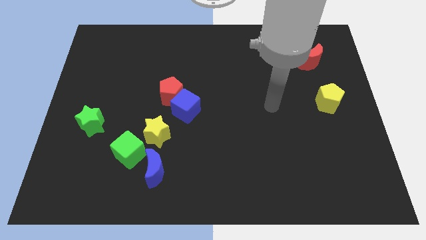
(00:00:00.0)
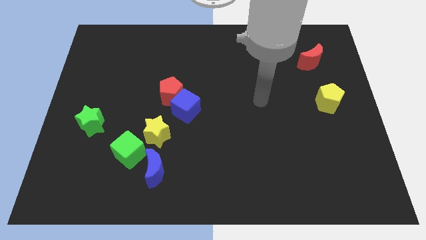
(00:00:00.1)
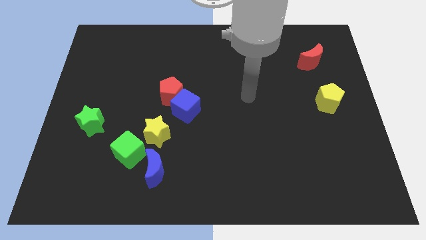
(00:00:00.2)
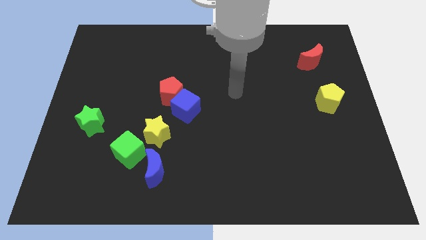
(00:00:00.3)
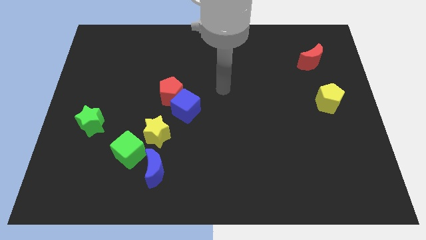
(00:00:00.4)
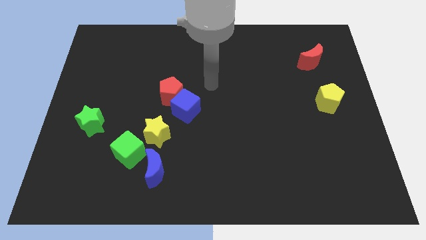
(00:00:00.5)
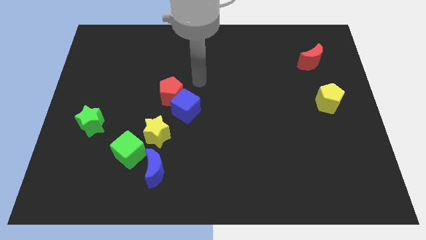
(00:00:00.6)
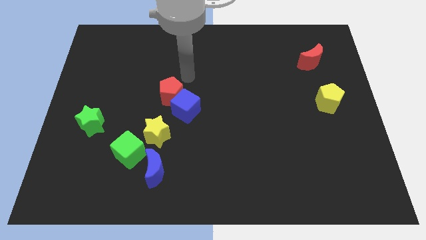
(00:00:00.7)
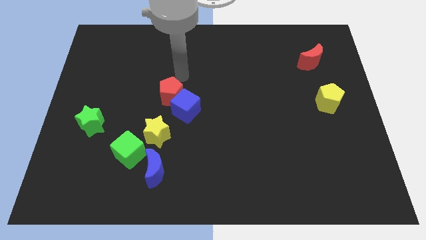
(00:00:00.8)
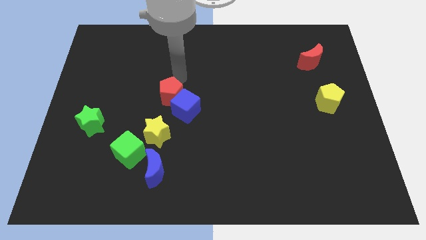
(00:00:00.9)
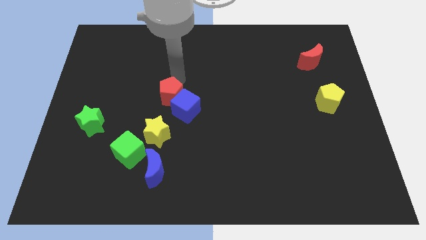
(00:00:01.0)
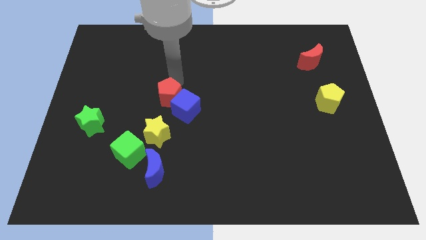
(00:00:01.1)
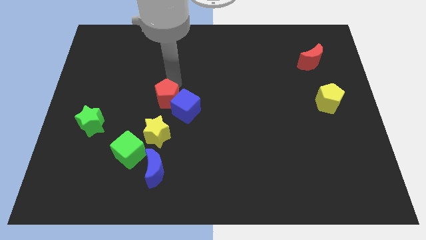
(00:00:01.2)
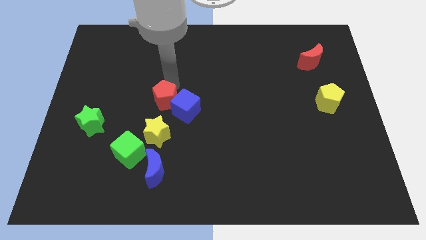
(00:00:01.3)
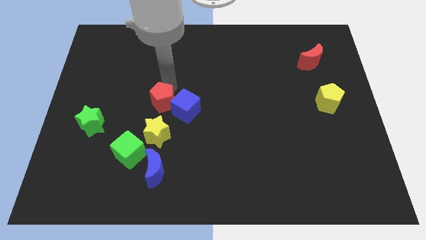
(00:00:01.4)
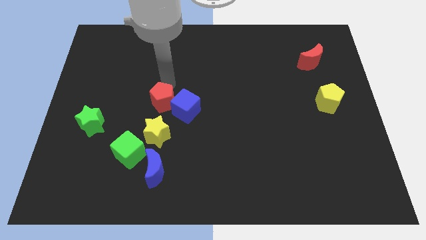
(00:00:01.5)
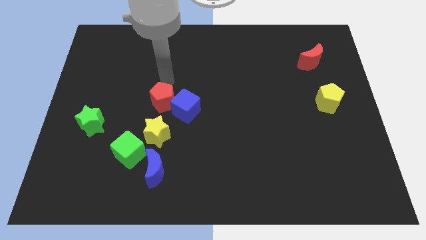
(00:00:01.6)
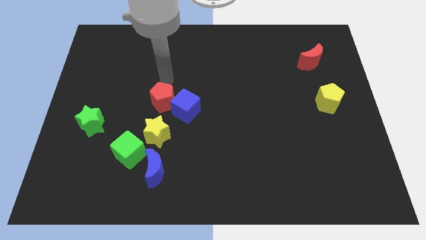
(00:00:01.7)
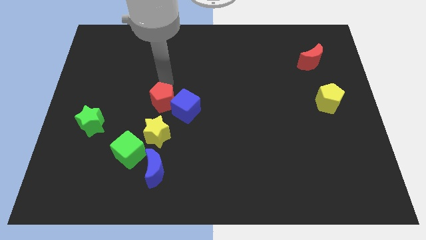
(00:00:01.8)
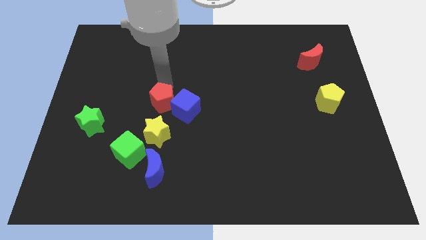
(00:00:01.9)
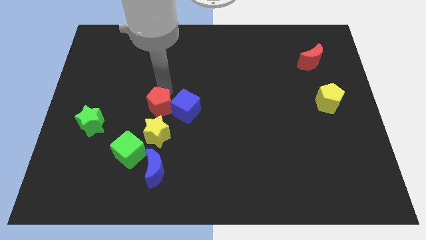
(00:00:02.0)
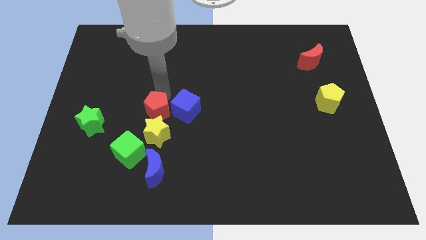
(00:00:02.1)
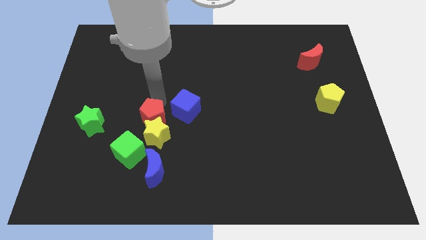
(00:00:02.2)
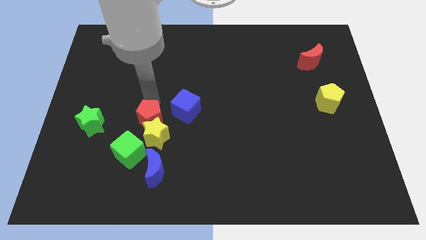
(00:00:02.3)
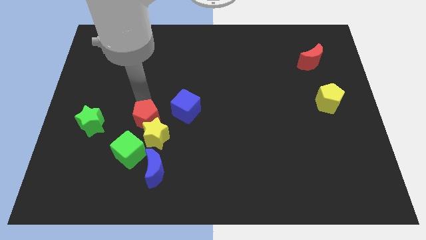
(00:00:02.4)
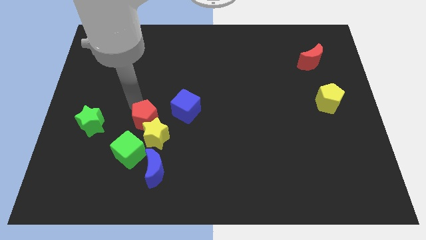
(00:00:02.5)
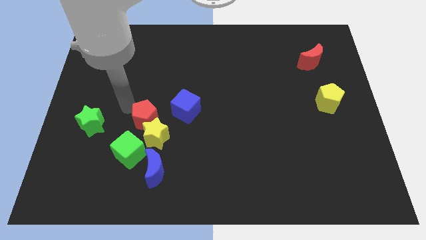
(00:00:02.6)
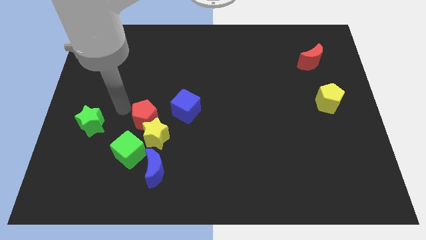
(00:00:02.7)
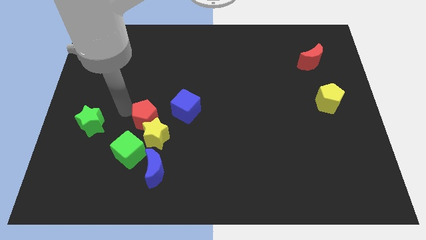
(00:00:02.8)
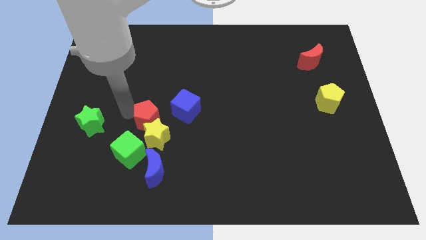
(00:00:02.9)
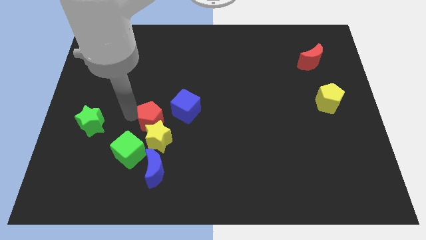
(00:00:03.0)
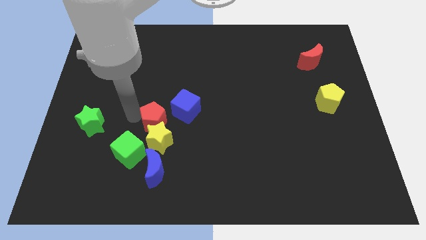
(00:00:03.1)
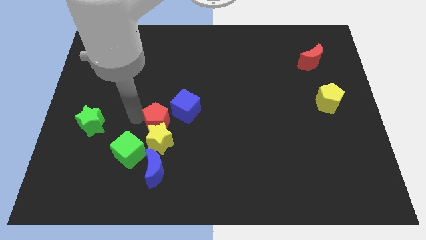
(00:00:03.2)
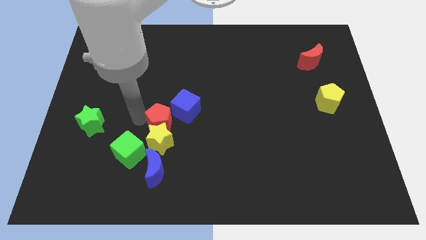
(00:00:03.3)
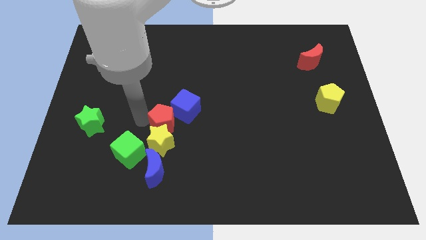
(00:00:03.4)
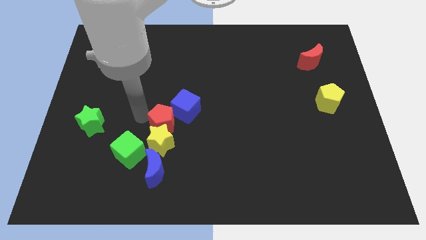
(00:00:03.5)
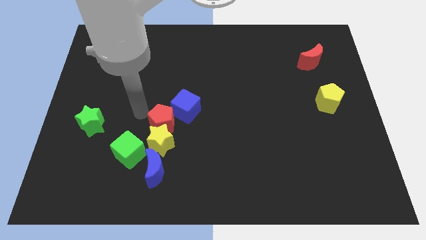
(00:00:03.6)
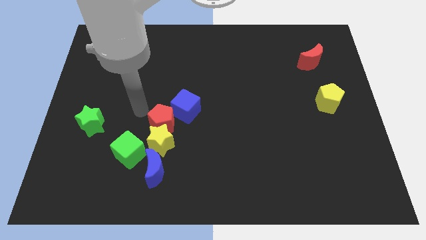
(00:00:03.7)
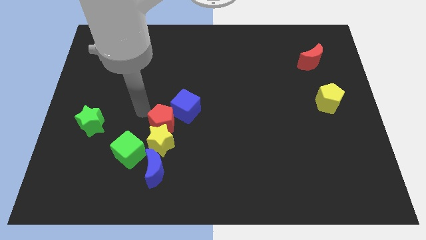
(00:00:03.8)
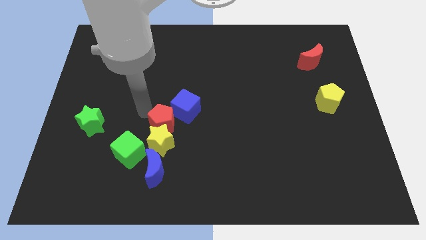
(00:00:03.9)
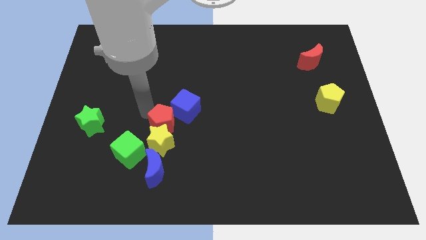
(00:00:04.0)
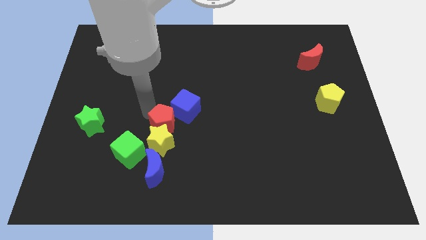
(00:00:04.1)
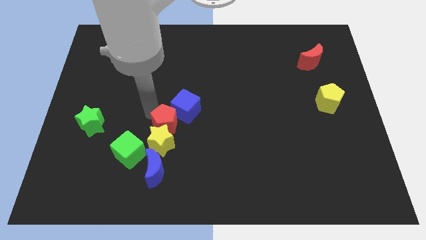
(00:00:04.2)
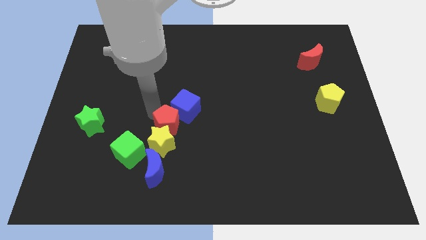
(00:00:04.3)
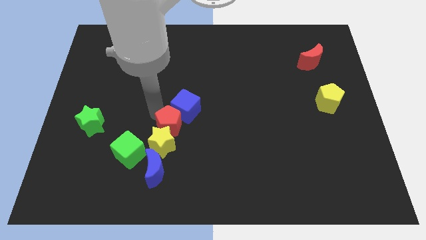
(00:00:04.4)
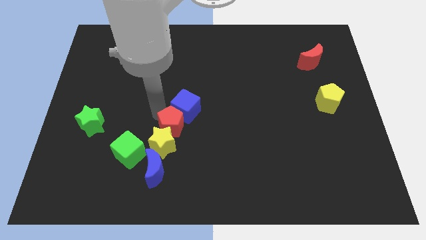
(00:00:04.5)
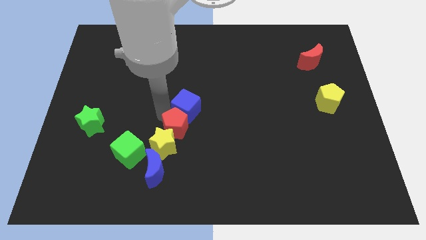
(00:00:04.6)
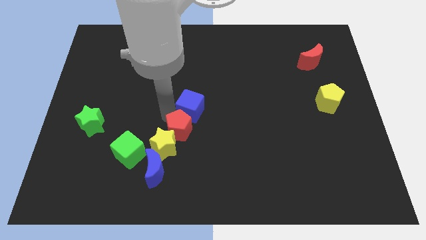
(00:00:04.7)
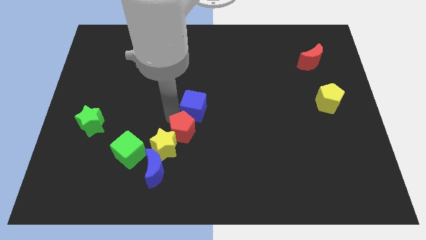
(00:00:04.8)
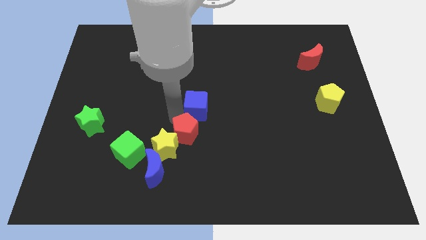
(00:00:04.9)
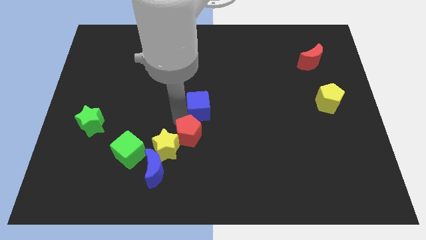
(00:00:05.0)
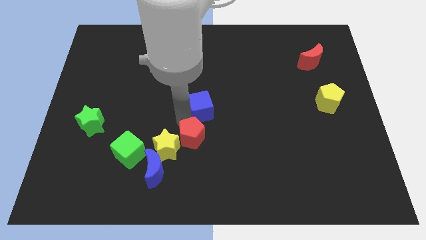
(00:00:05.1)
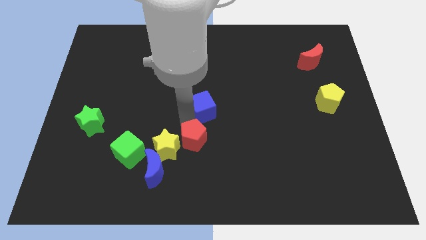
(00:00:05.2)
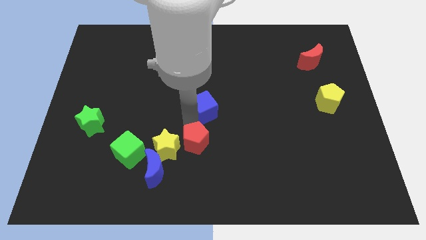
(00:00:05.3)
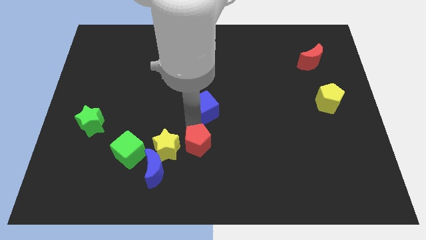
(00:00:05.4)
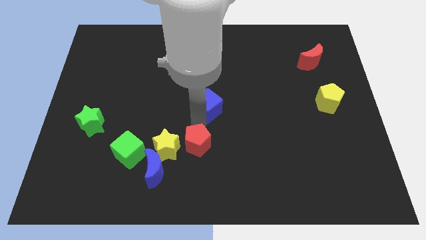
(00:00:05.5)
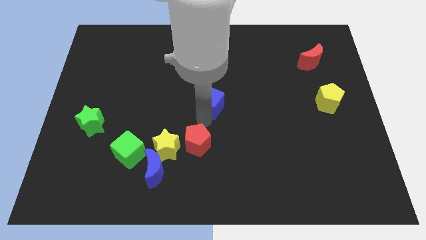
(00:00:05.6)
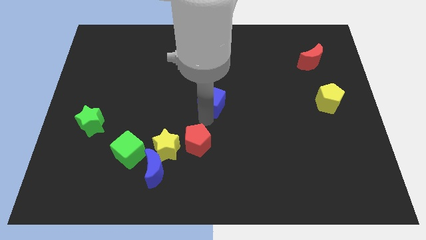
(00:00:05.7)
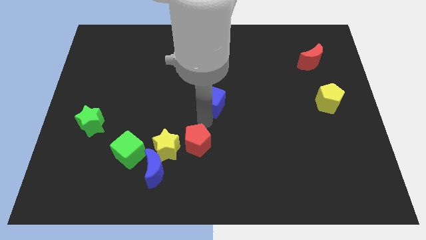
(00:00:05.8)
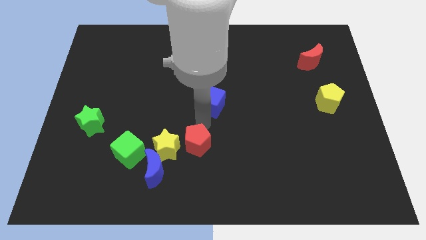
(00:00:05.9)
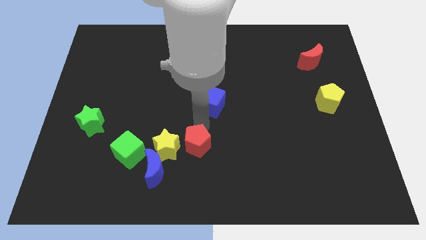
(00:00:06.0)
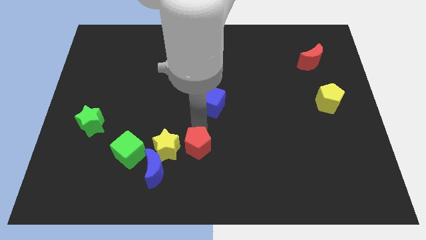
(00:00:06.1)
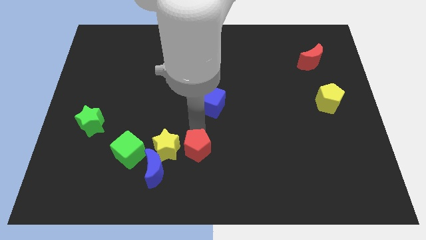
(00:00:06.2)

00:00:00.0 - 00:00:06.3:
slide the red pentagon to the bottom right side of the yellow star

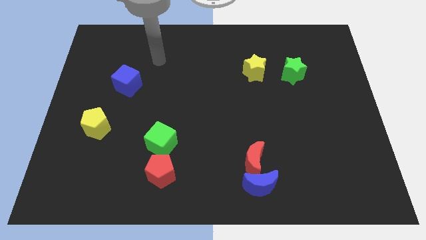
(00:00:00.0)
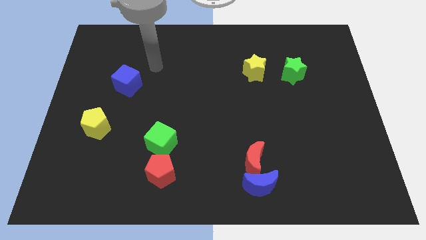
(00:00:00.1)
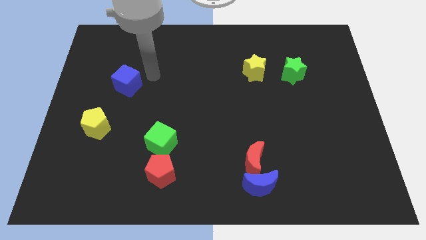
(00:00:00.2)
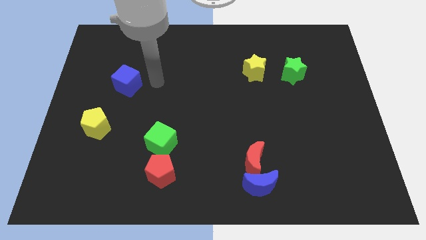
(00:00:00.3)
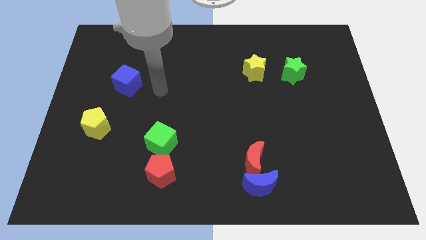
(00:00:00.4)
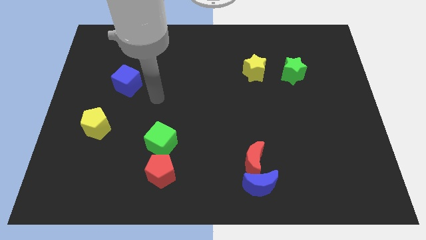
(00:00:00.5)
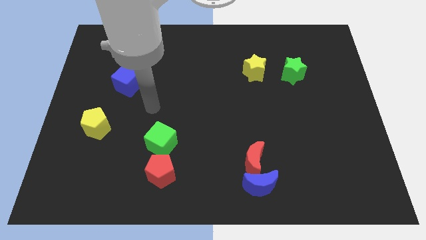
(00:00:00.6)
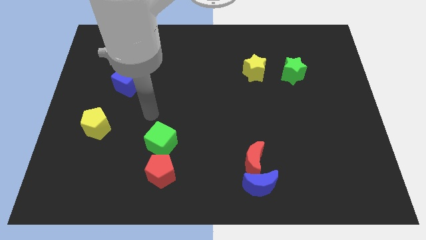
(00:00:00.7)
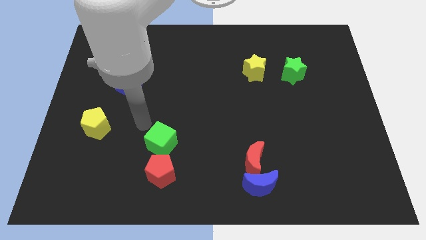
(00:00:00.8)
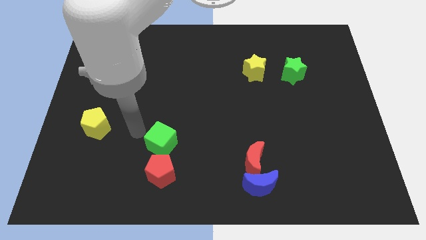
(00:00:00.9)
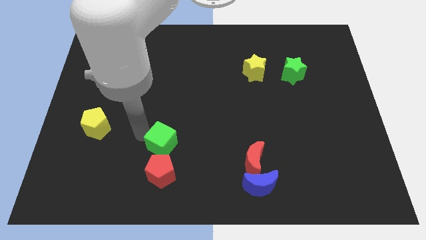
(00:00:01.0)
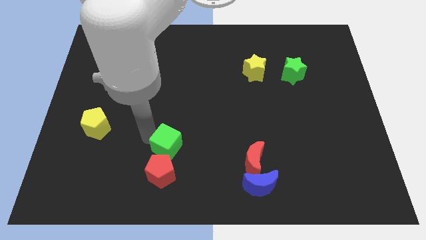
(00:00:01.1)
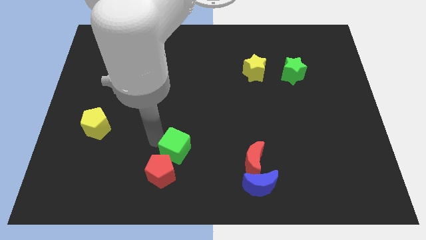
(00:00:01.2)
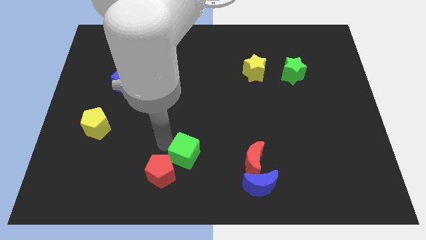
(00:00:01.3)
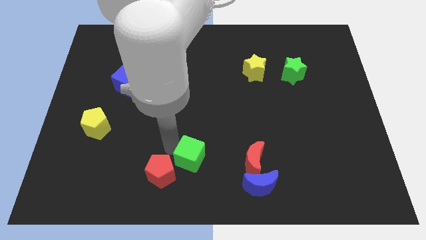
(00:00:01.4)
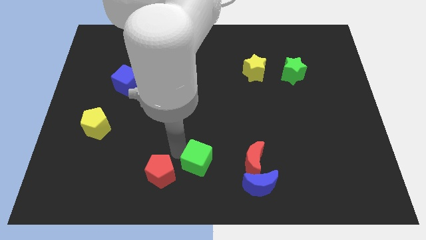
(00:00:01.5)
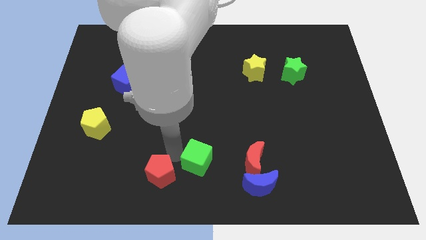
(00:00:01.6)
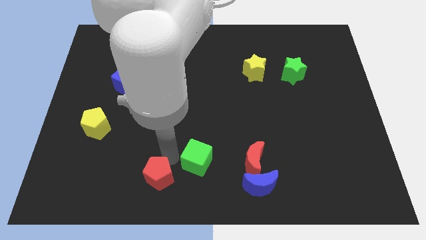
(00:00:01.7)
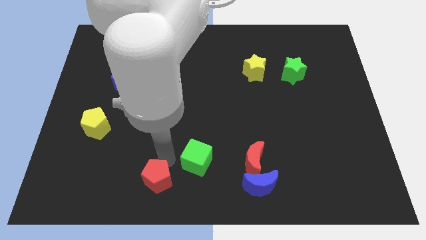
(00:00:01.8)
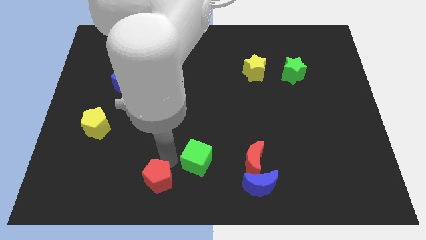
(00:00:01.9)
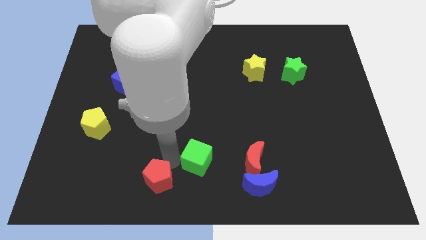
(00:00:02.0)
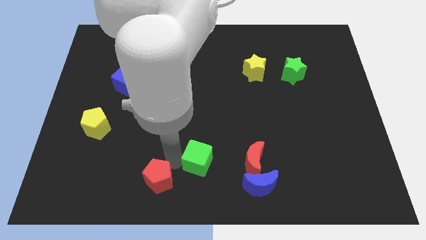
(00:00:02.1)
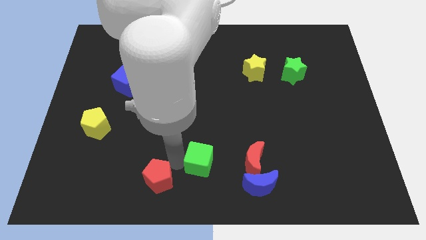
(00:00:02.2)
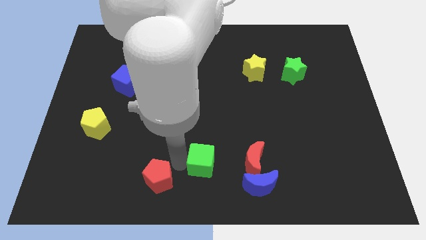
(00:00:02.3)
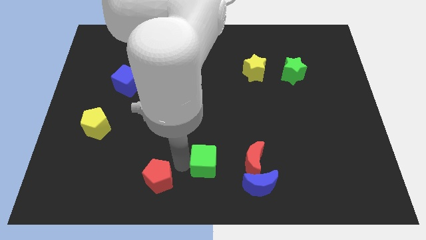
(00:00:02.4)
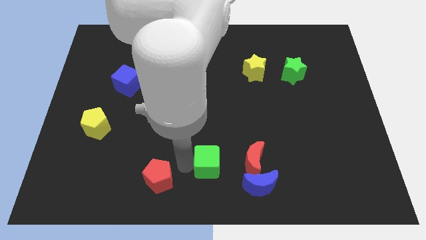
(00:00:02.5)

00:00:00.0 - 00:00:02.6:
move the green cube to the top left of the blue moon
